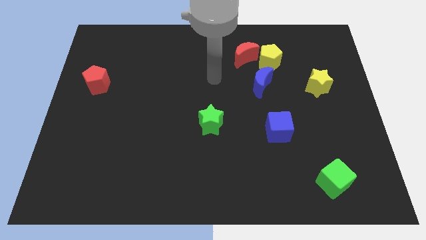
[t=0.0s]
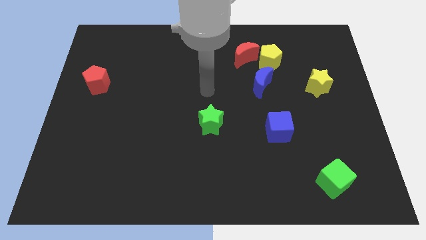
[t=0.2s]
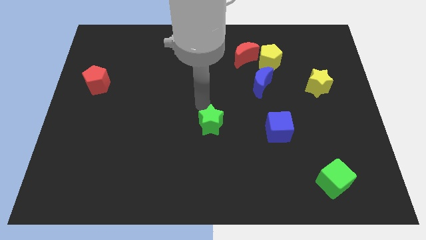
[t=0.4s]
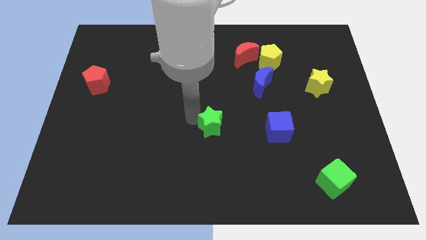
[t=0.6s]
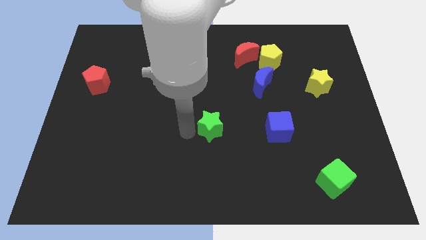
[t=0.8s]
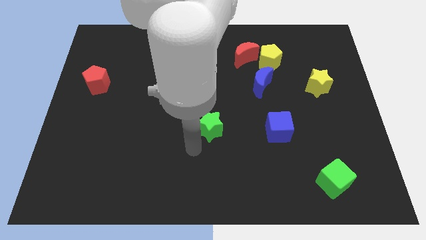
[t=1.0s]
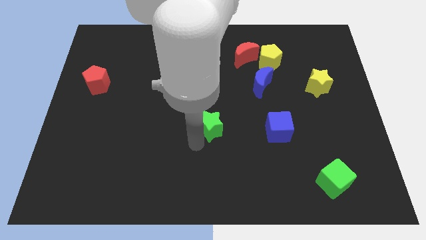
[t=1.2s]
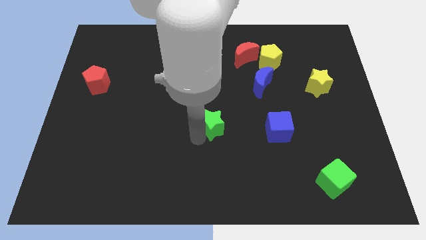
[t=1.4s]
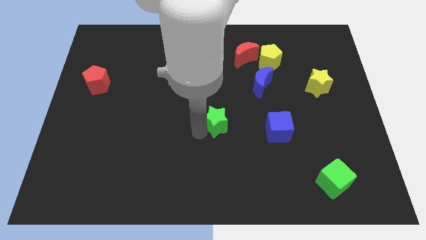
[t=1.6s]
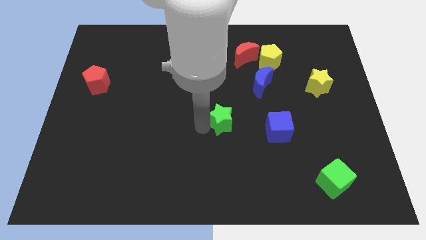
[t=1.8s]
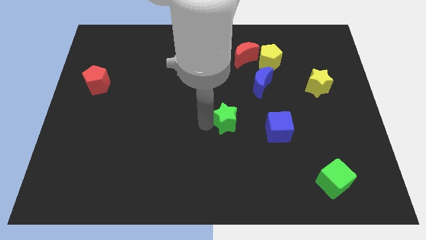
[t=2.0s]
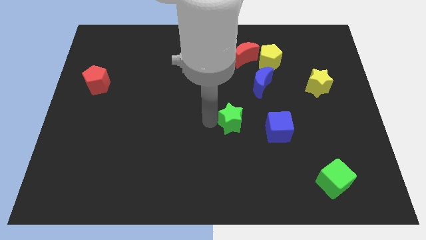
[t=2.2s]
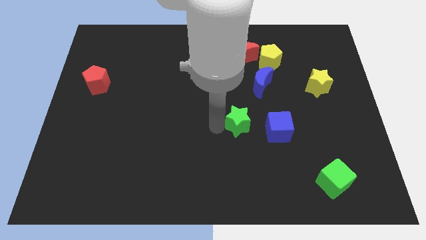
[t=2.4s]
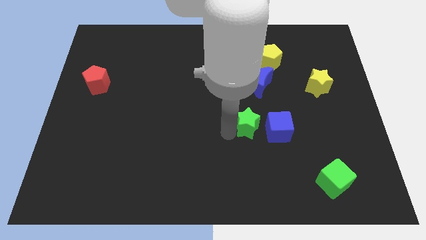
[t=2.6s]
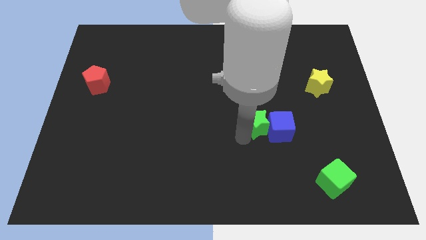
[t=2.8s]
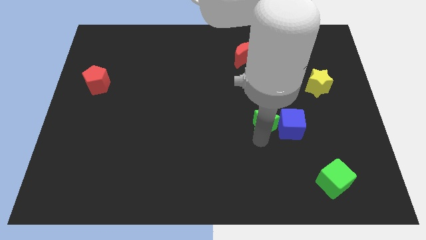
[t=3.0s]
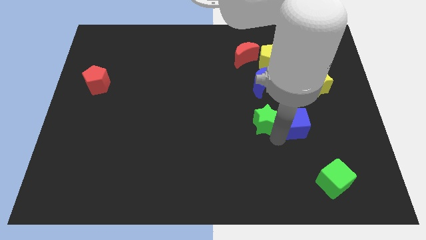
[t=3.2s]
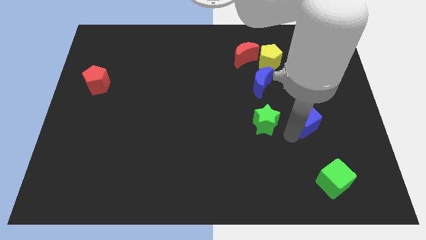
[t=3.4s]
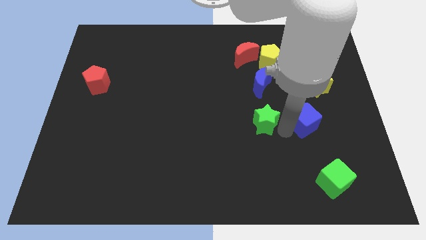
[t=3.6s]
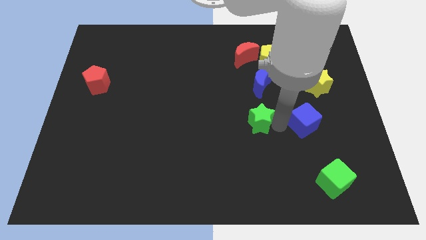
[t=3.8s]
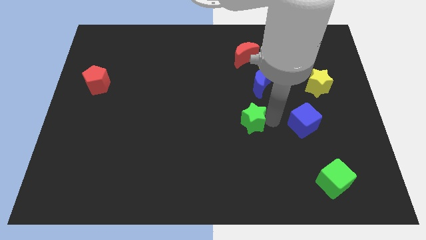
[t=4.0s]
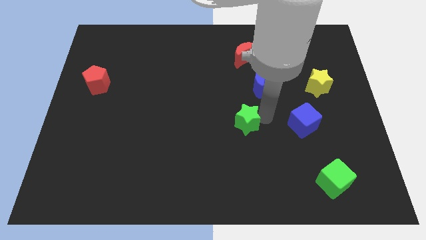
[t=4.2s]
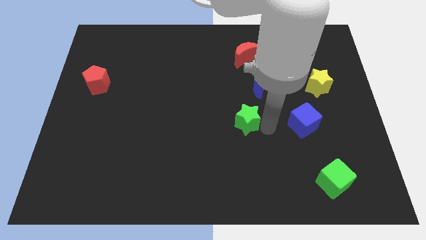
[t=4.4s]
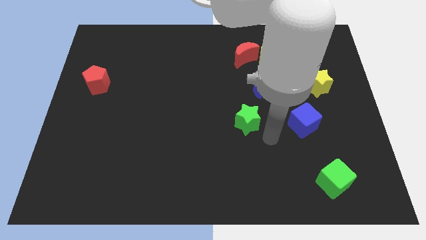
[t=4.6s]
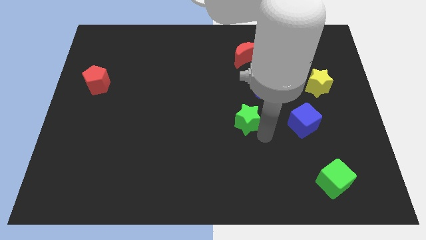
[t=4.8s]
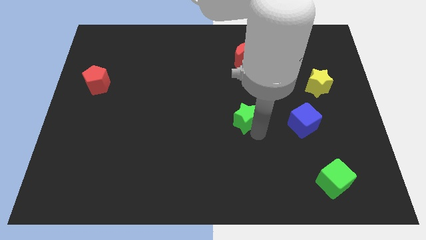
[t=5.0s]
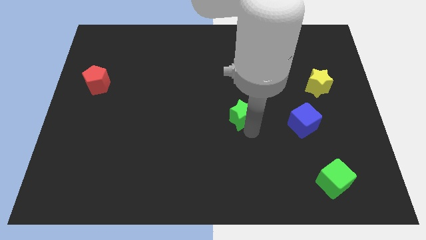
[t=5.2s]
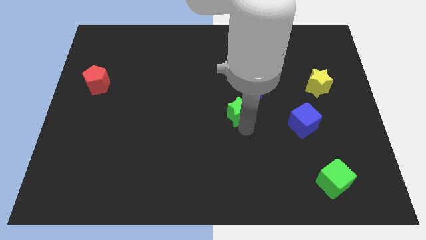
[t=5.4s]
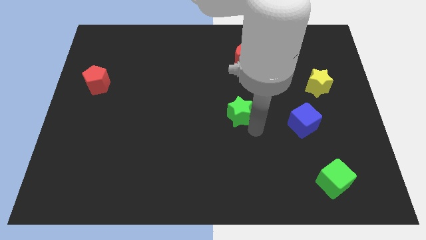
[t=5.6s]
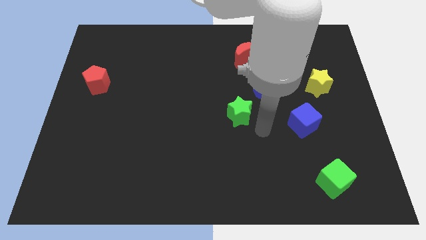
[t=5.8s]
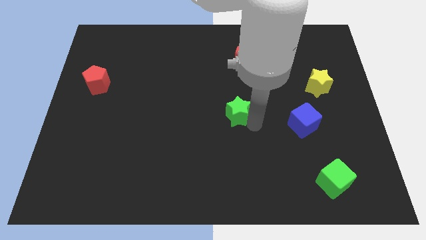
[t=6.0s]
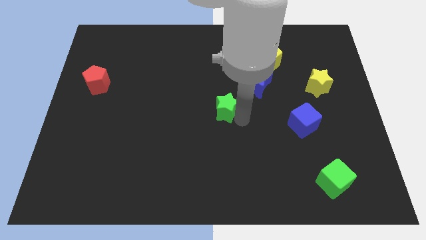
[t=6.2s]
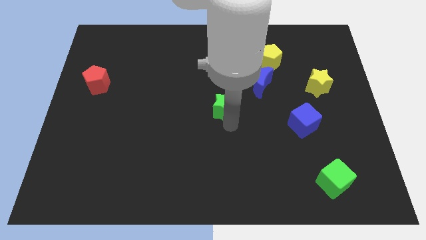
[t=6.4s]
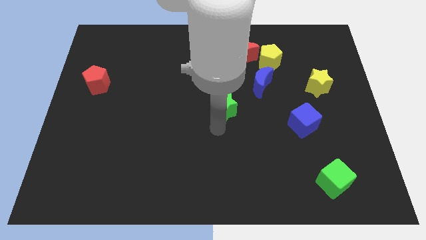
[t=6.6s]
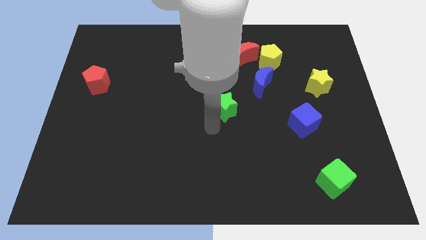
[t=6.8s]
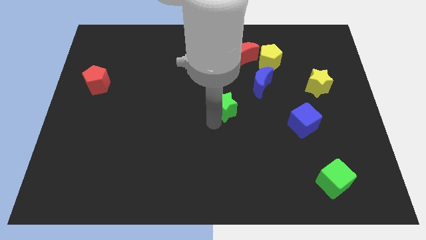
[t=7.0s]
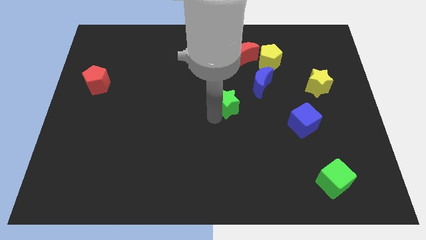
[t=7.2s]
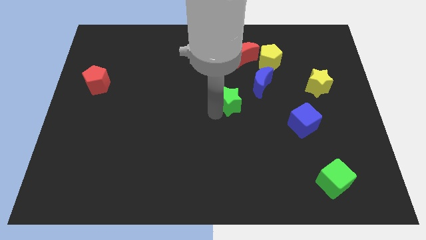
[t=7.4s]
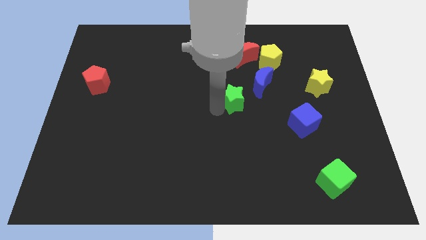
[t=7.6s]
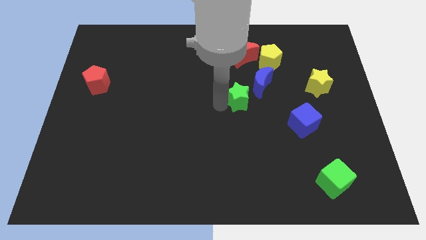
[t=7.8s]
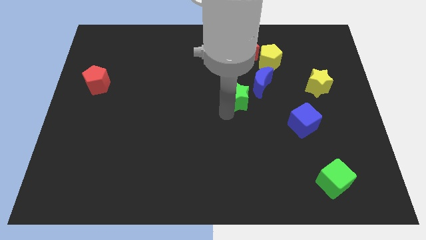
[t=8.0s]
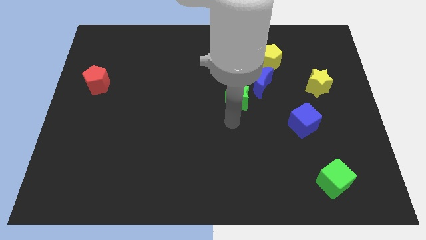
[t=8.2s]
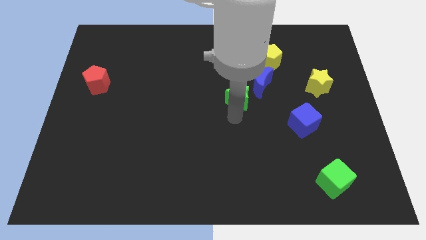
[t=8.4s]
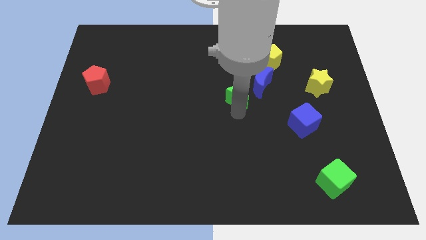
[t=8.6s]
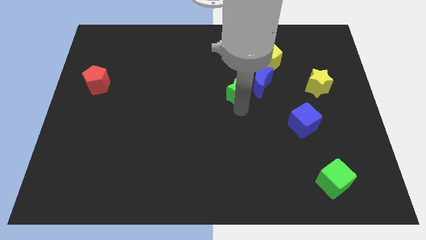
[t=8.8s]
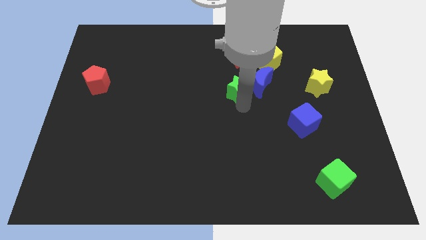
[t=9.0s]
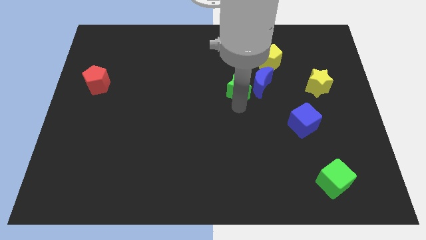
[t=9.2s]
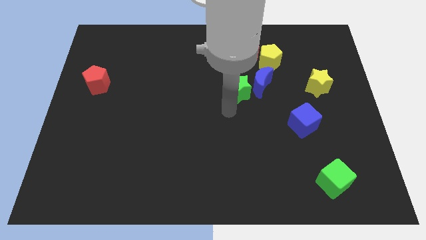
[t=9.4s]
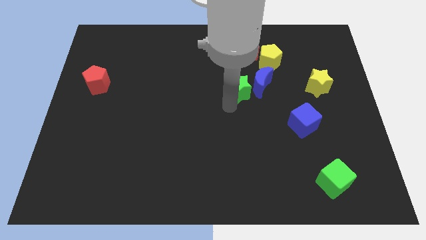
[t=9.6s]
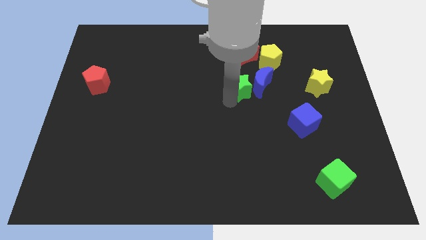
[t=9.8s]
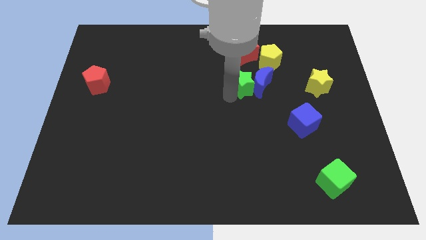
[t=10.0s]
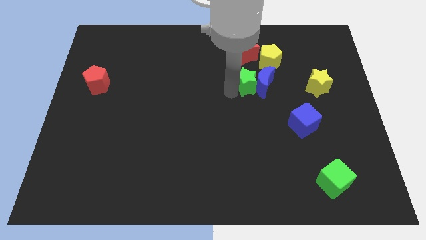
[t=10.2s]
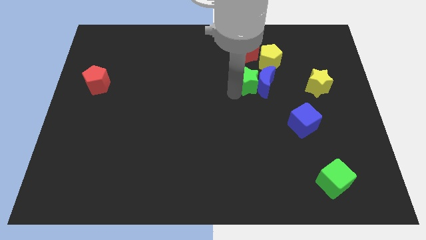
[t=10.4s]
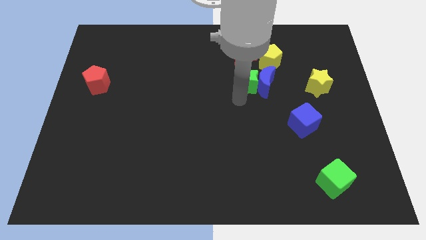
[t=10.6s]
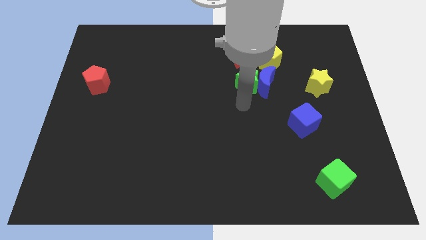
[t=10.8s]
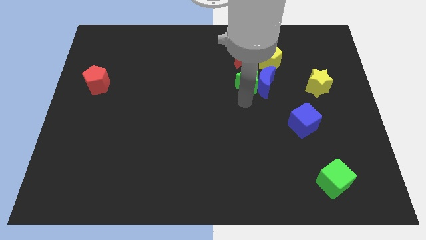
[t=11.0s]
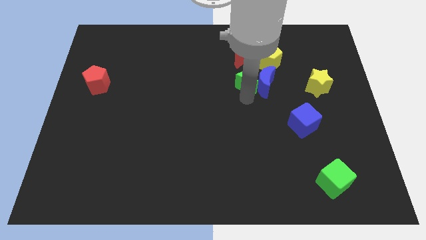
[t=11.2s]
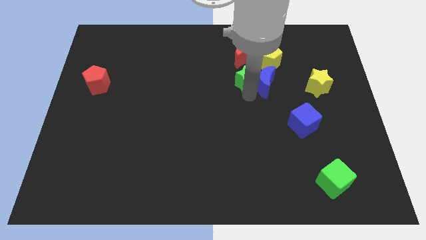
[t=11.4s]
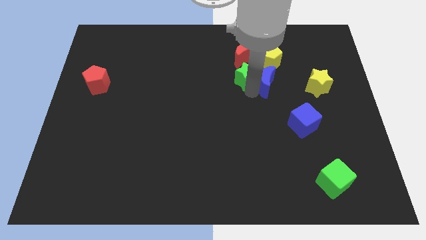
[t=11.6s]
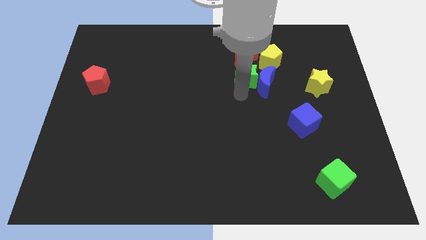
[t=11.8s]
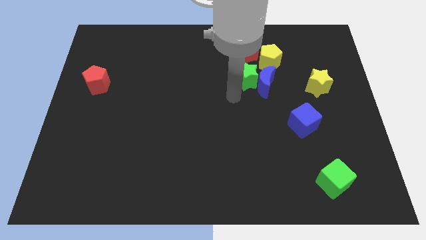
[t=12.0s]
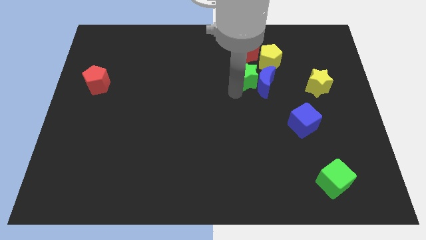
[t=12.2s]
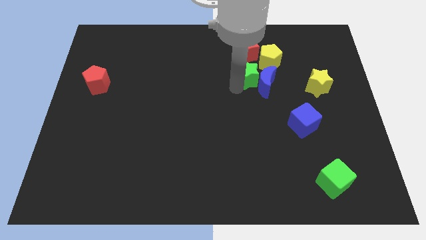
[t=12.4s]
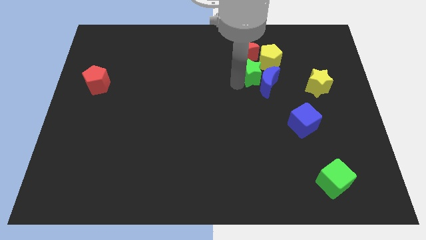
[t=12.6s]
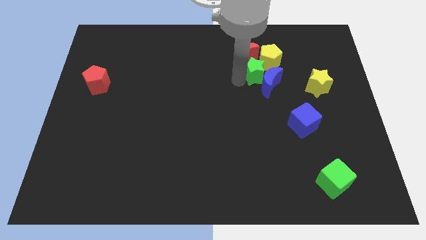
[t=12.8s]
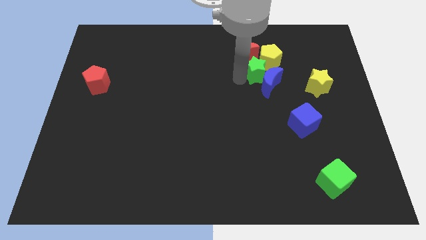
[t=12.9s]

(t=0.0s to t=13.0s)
move the green star towards the yellow pentagon

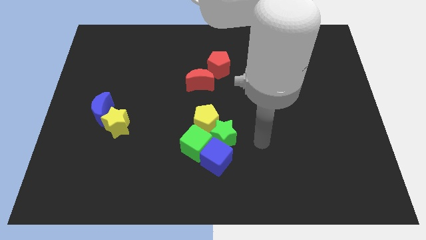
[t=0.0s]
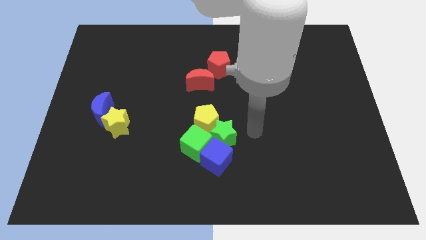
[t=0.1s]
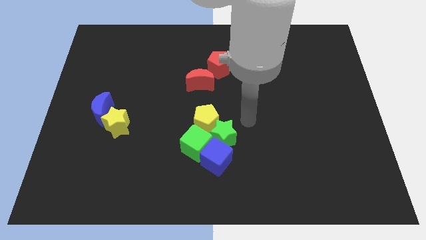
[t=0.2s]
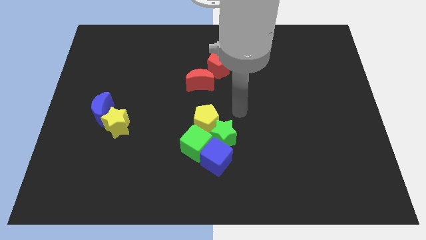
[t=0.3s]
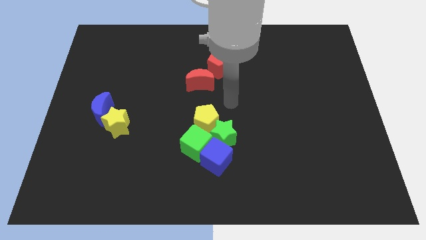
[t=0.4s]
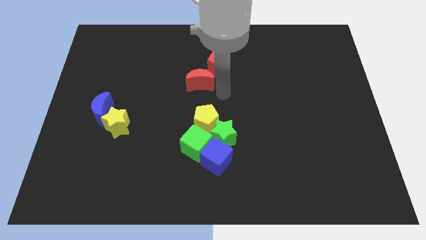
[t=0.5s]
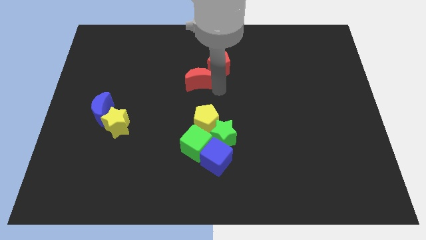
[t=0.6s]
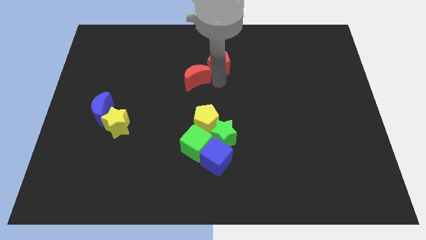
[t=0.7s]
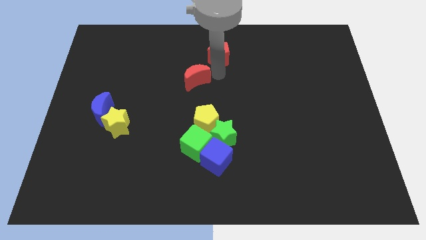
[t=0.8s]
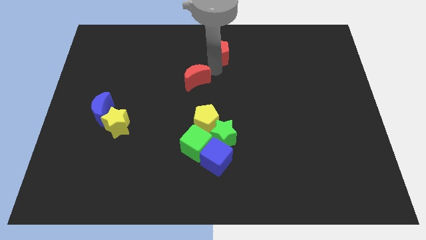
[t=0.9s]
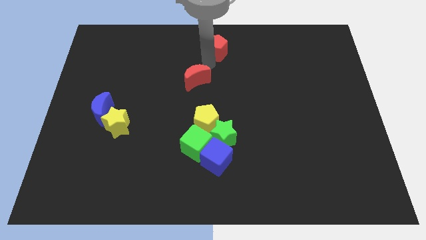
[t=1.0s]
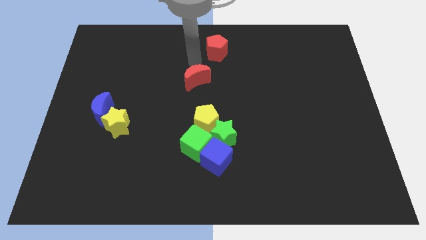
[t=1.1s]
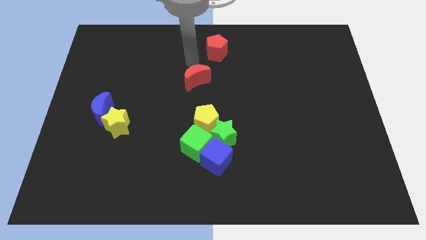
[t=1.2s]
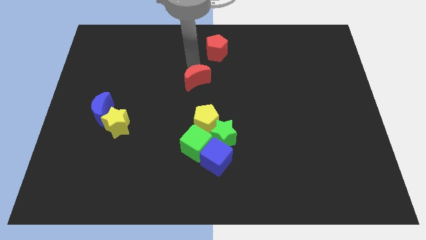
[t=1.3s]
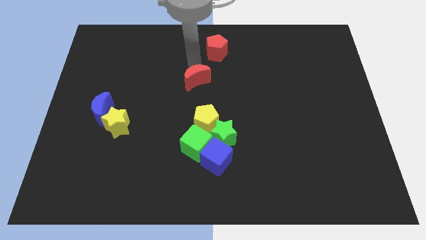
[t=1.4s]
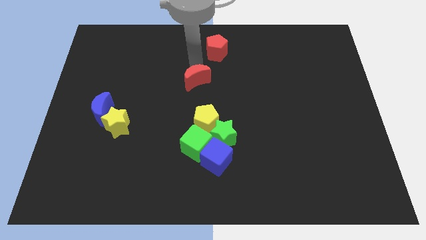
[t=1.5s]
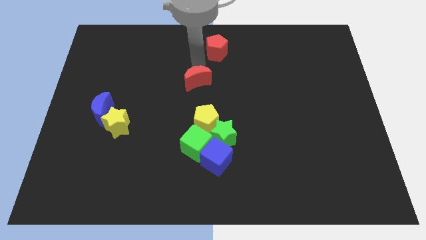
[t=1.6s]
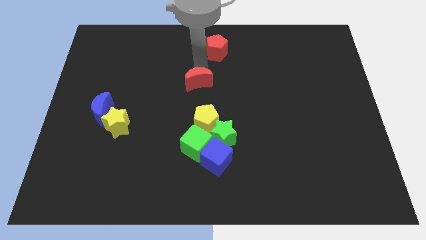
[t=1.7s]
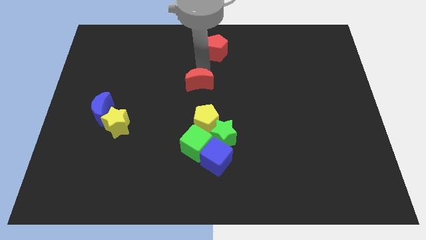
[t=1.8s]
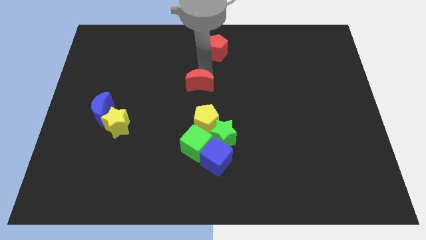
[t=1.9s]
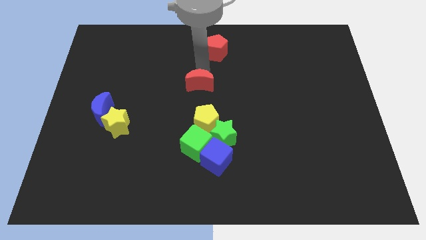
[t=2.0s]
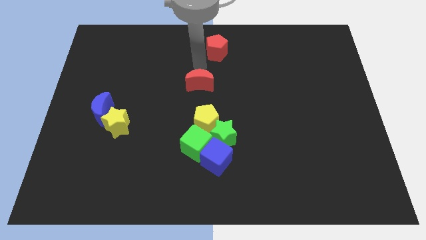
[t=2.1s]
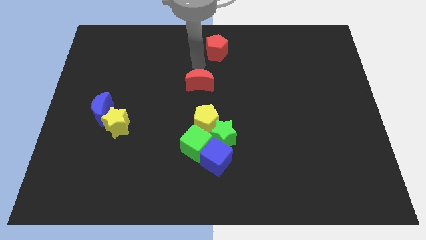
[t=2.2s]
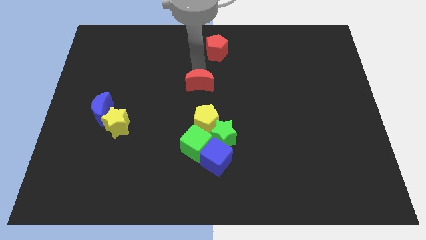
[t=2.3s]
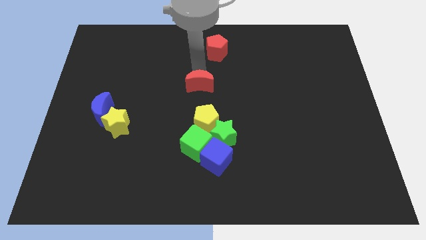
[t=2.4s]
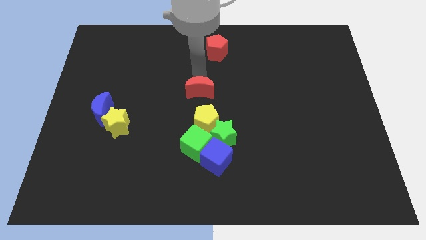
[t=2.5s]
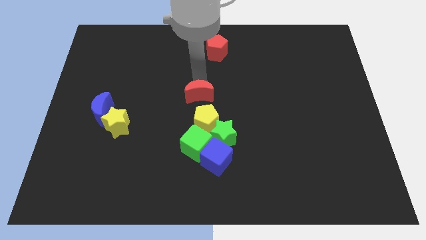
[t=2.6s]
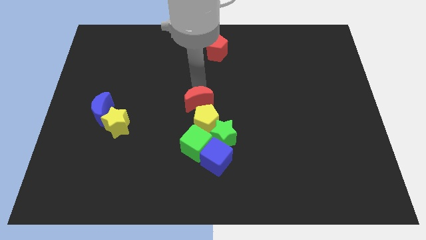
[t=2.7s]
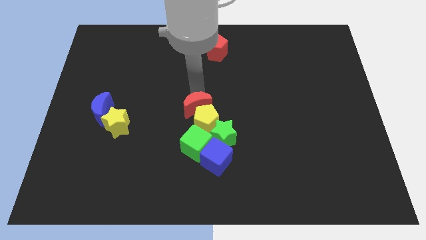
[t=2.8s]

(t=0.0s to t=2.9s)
move the red moon to the yellow pentagon
